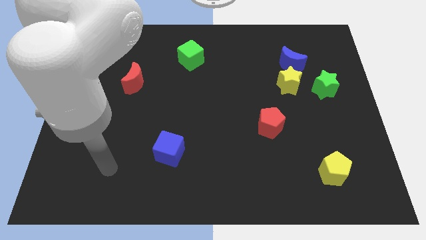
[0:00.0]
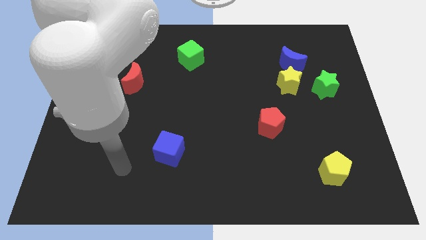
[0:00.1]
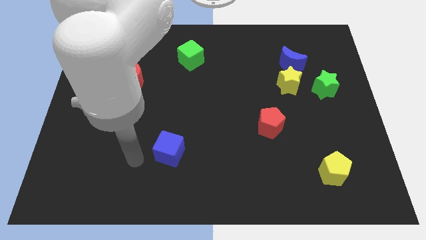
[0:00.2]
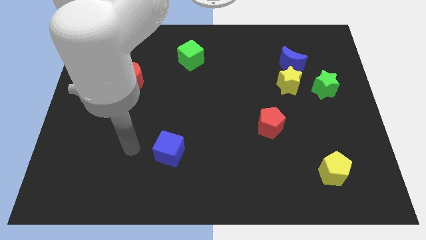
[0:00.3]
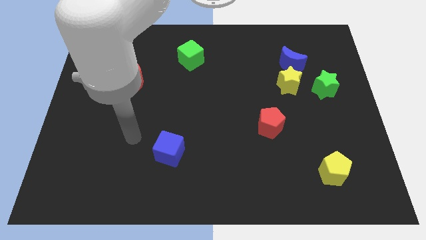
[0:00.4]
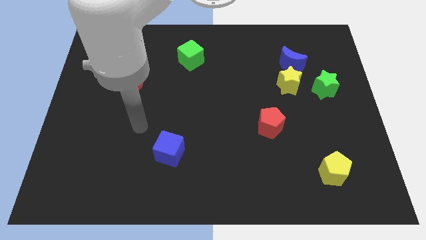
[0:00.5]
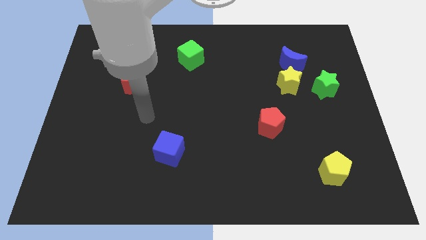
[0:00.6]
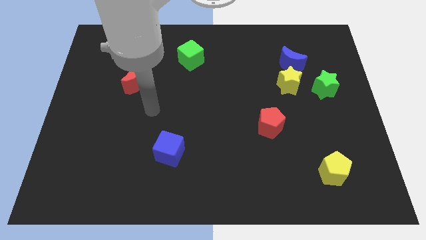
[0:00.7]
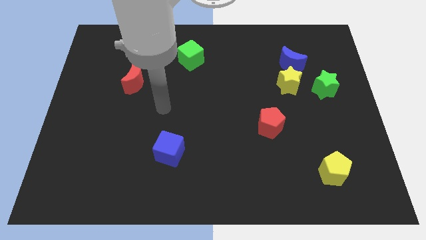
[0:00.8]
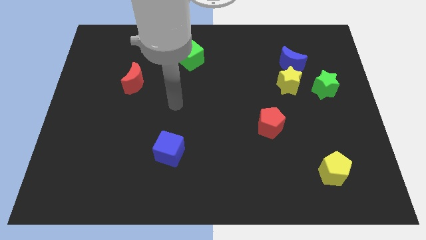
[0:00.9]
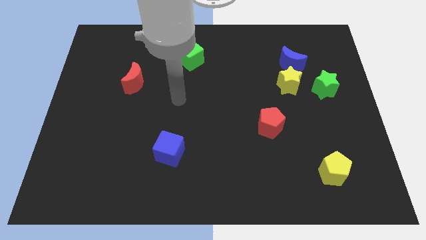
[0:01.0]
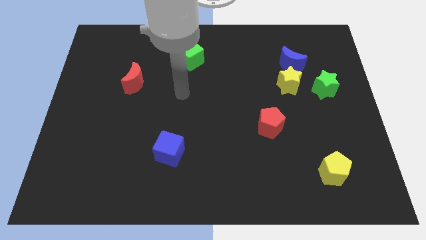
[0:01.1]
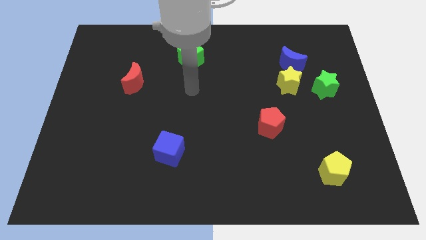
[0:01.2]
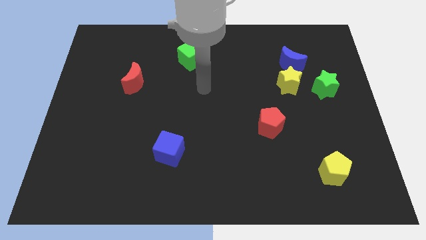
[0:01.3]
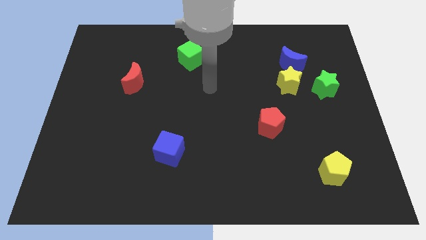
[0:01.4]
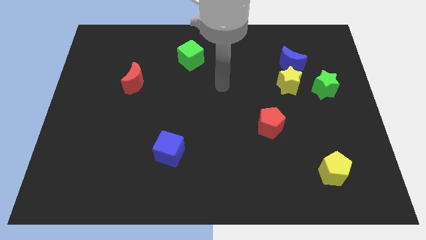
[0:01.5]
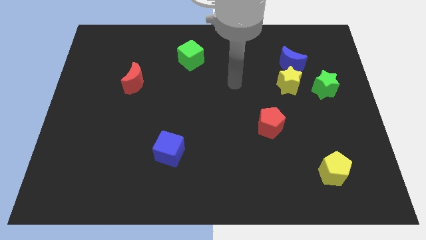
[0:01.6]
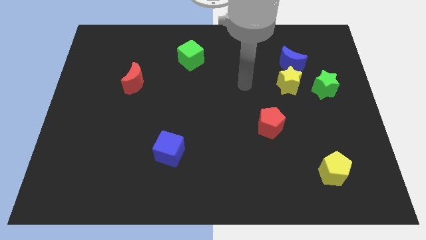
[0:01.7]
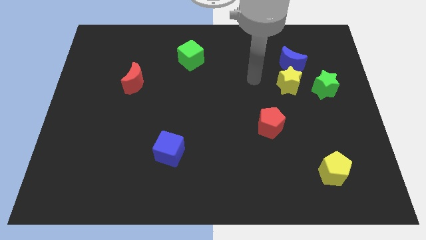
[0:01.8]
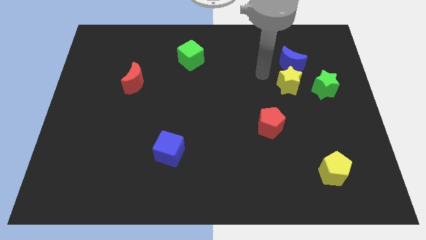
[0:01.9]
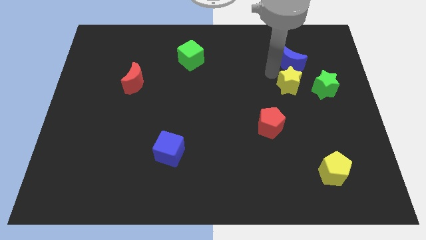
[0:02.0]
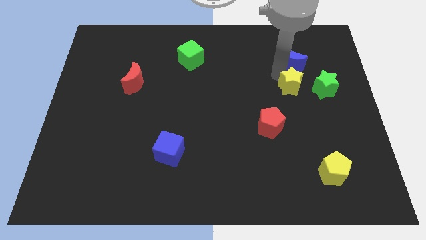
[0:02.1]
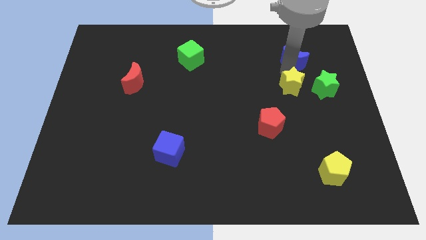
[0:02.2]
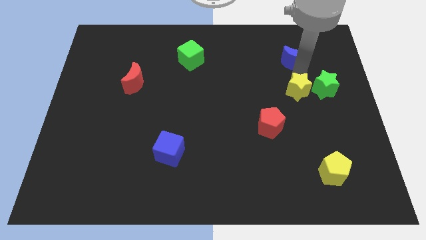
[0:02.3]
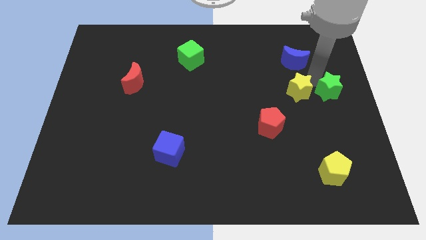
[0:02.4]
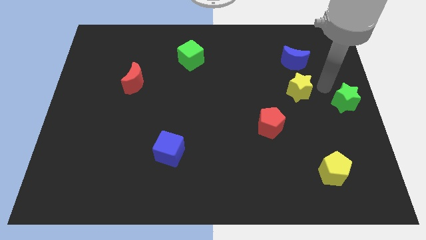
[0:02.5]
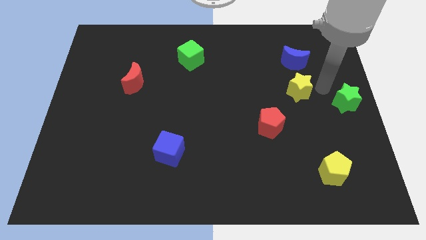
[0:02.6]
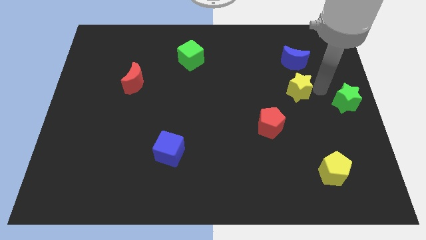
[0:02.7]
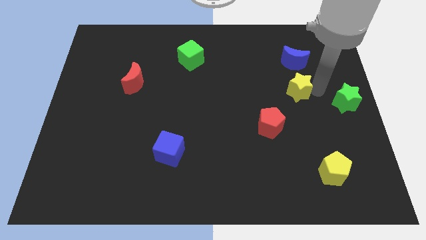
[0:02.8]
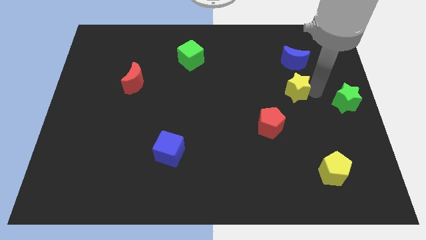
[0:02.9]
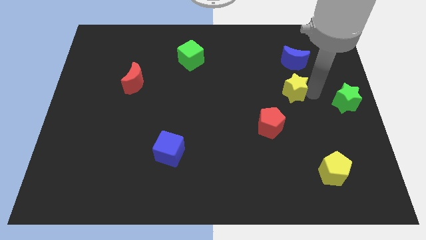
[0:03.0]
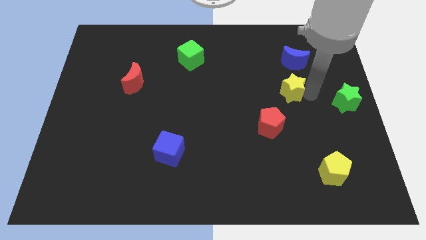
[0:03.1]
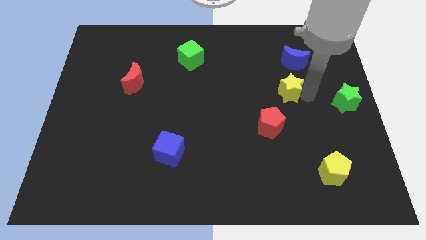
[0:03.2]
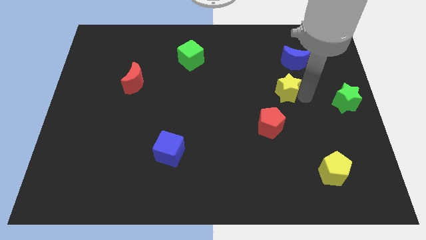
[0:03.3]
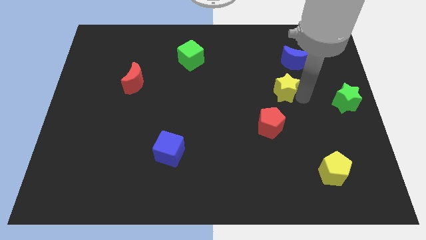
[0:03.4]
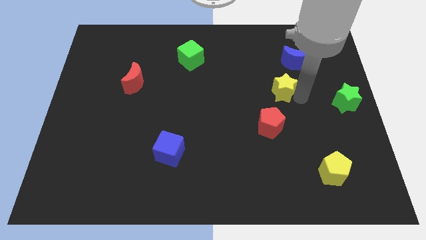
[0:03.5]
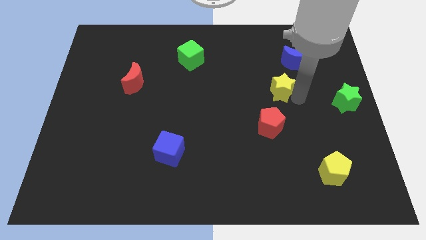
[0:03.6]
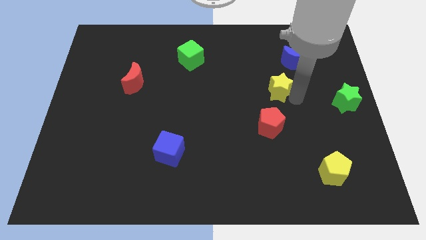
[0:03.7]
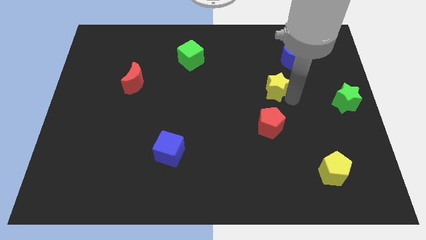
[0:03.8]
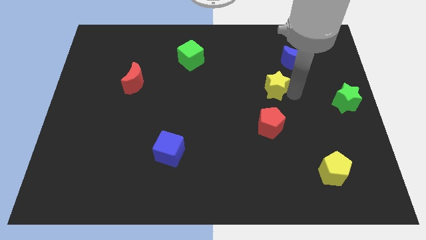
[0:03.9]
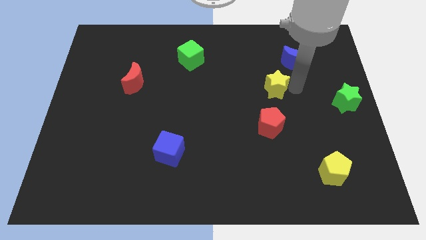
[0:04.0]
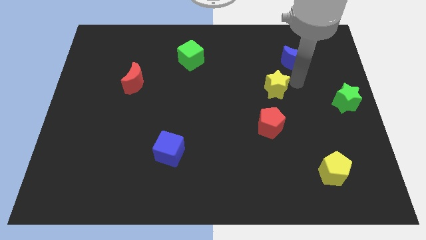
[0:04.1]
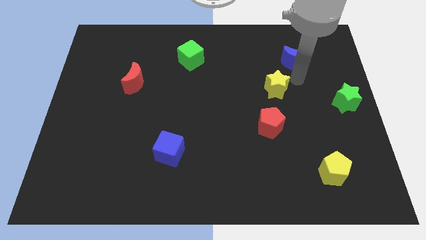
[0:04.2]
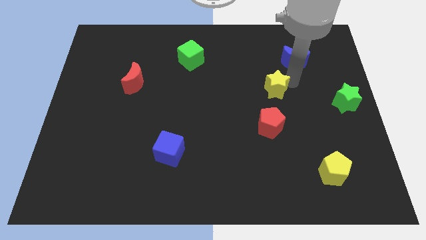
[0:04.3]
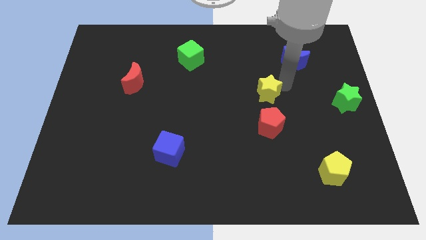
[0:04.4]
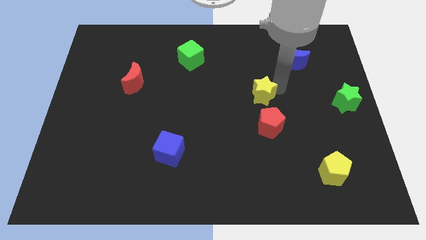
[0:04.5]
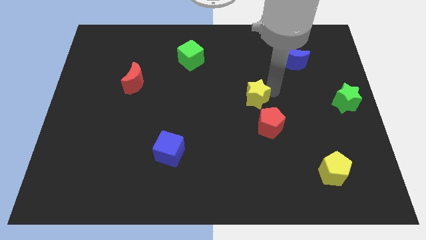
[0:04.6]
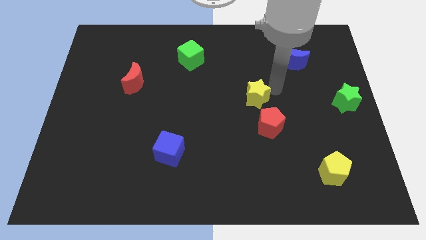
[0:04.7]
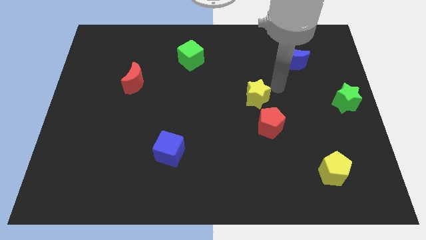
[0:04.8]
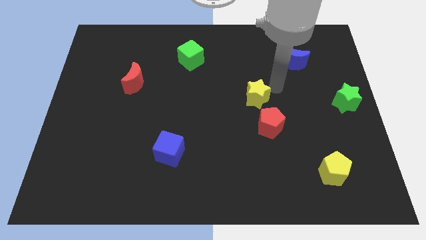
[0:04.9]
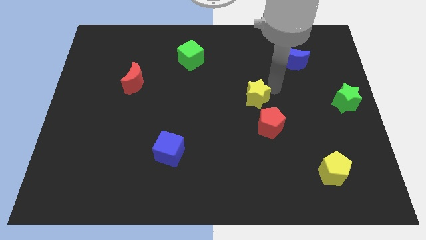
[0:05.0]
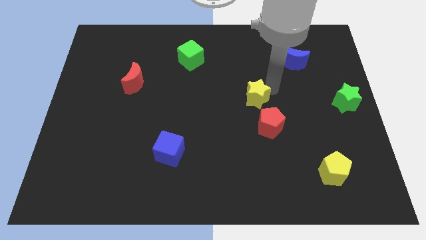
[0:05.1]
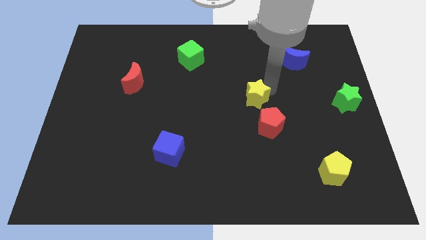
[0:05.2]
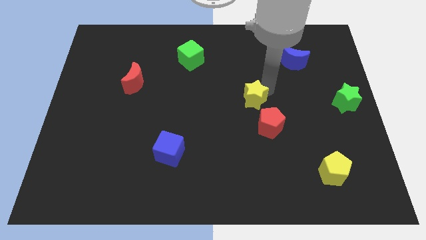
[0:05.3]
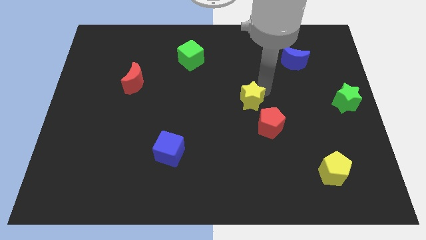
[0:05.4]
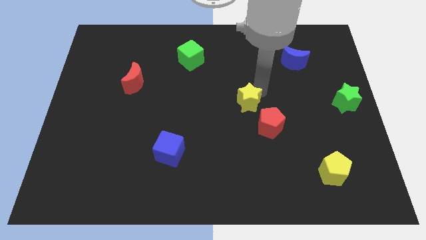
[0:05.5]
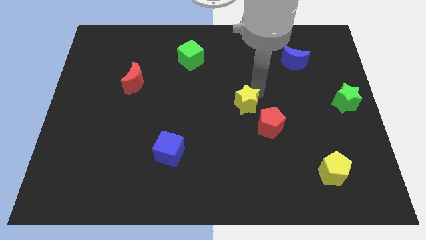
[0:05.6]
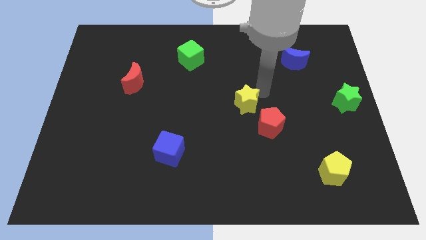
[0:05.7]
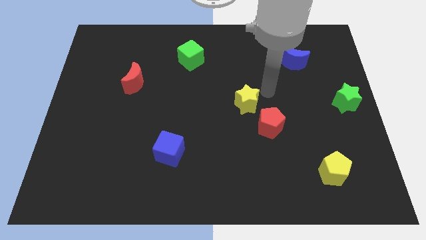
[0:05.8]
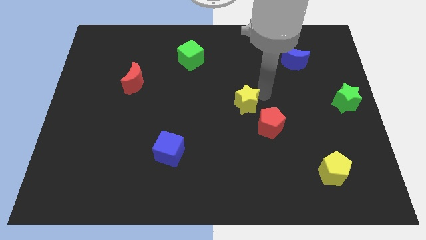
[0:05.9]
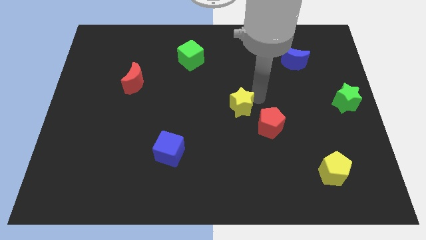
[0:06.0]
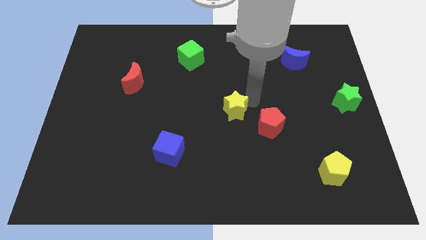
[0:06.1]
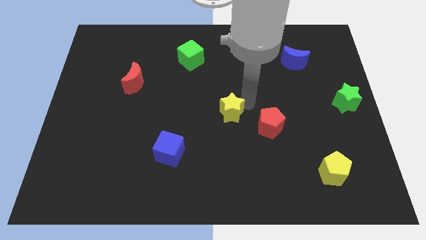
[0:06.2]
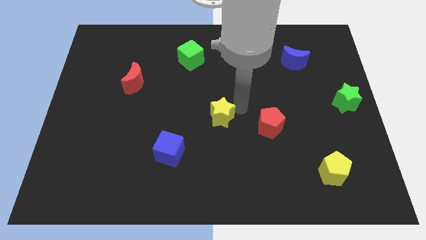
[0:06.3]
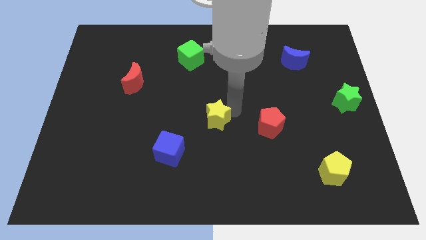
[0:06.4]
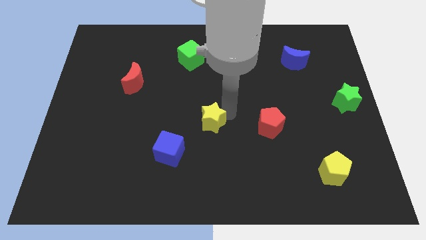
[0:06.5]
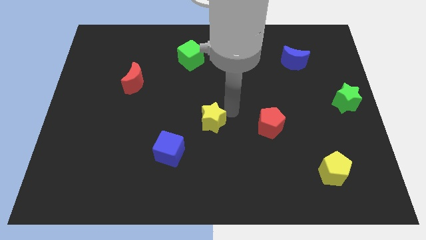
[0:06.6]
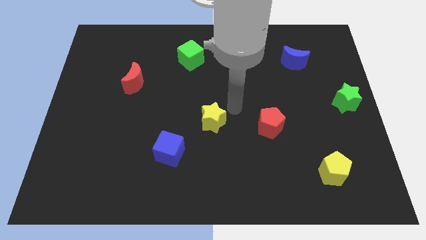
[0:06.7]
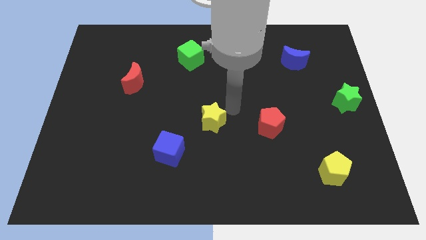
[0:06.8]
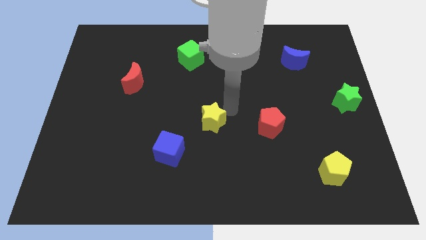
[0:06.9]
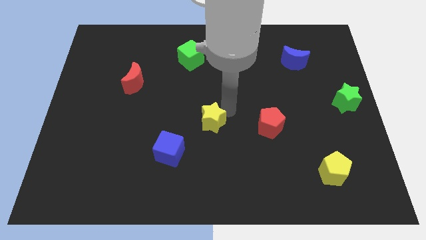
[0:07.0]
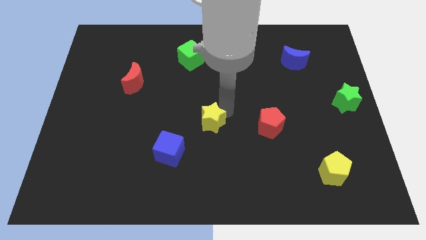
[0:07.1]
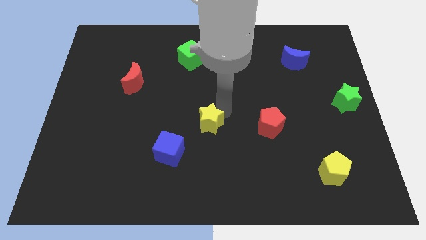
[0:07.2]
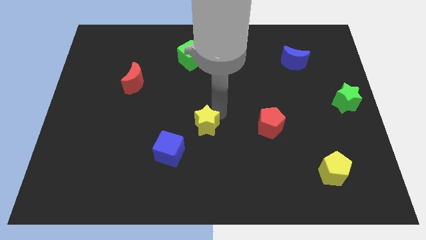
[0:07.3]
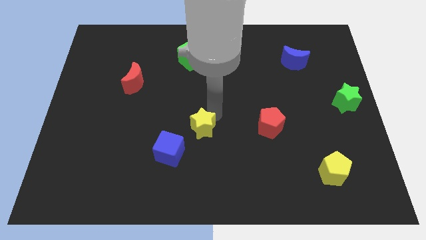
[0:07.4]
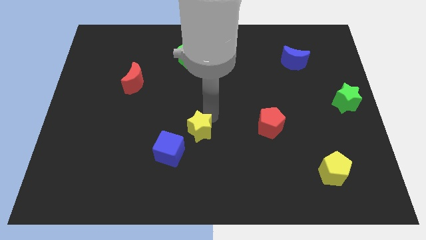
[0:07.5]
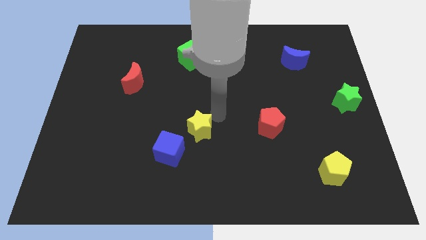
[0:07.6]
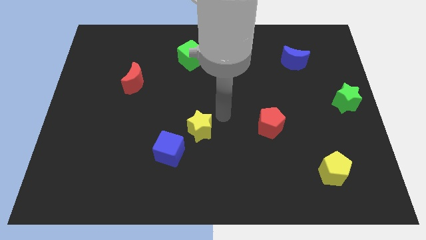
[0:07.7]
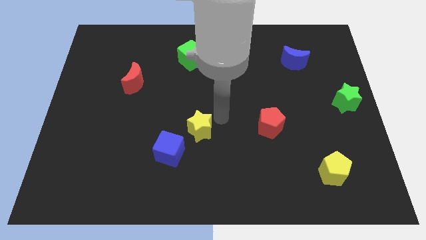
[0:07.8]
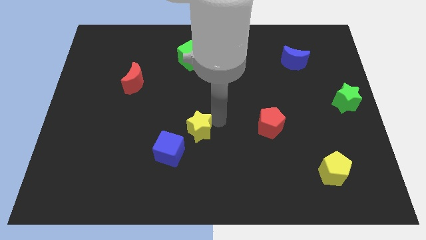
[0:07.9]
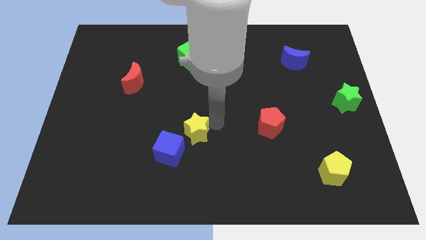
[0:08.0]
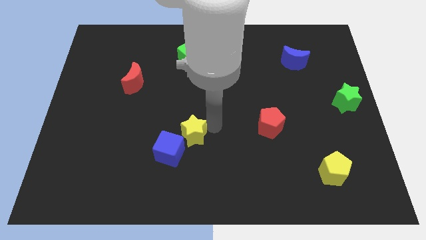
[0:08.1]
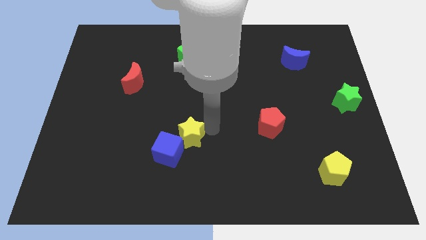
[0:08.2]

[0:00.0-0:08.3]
move the yellow star next to the blue cube
